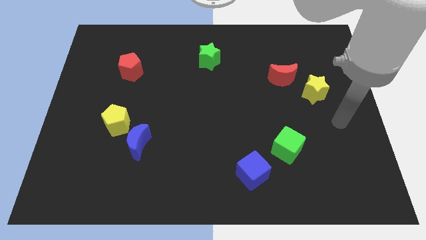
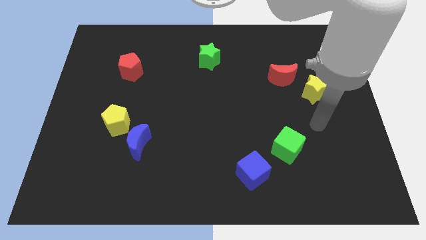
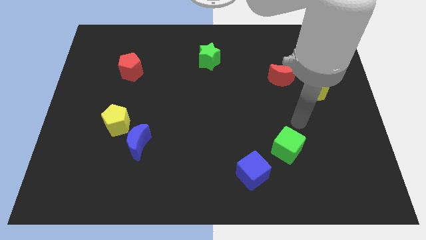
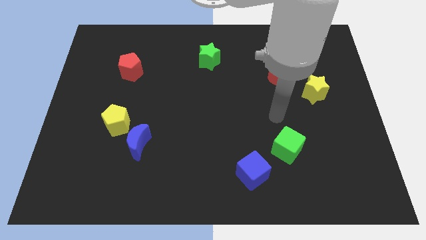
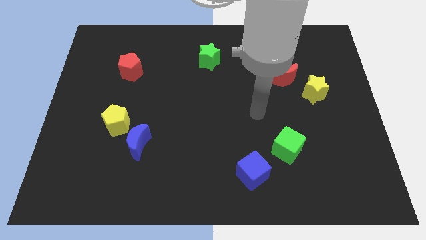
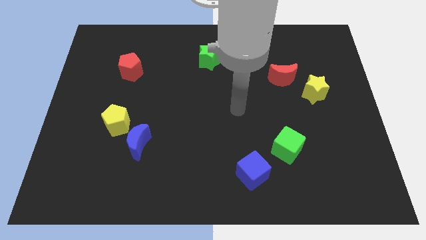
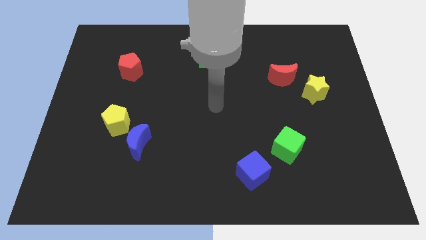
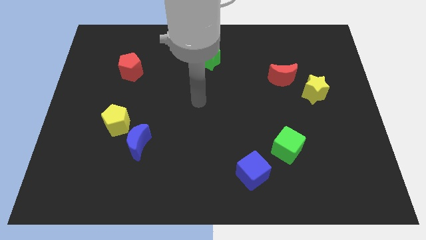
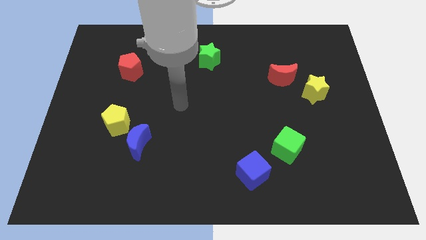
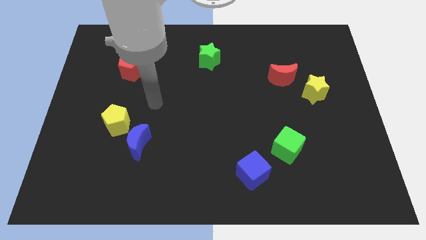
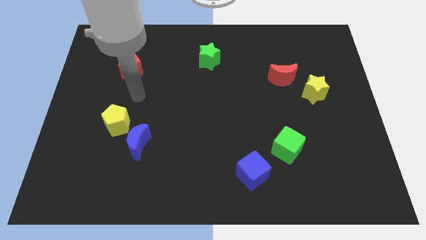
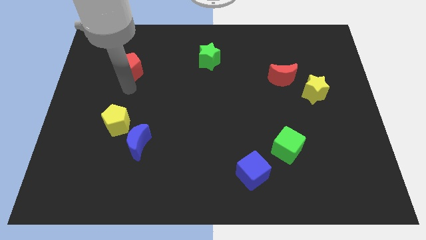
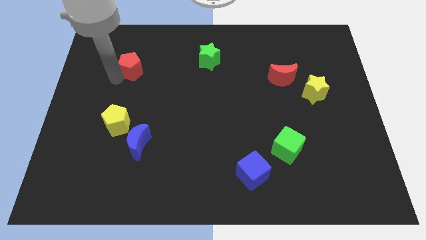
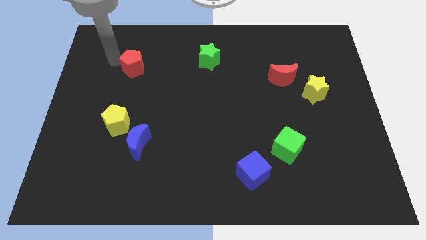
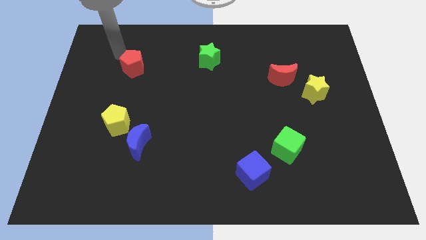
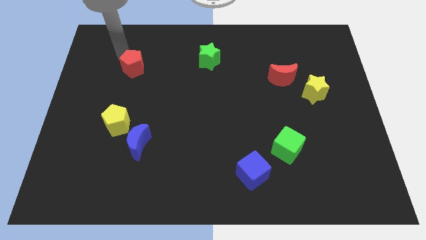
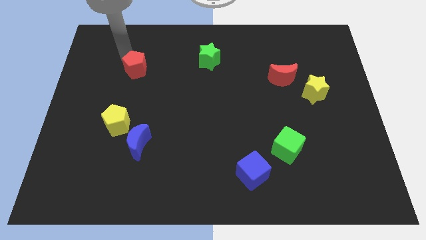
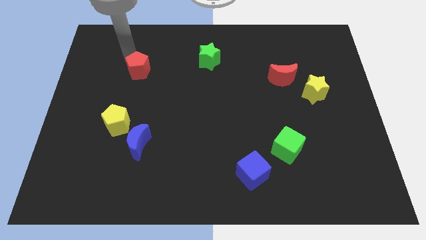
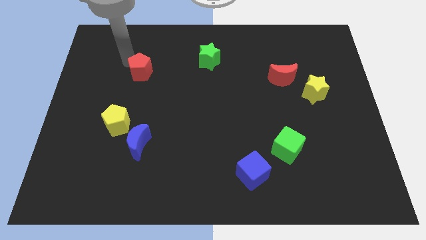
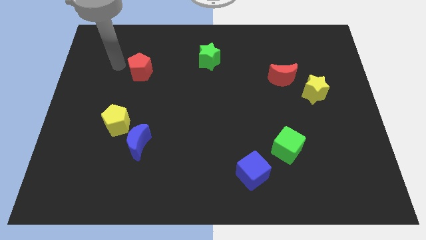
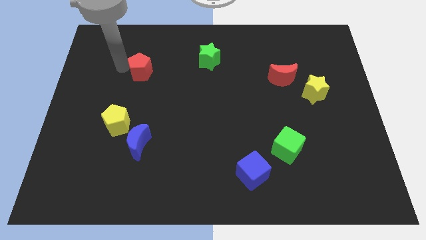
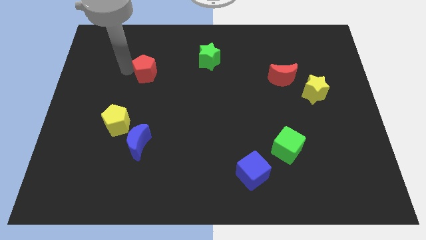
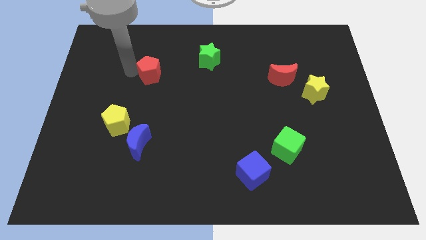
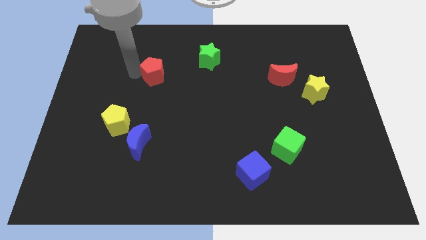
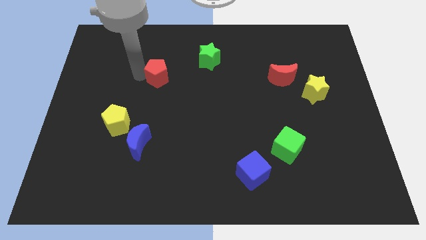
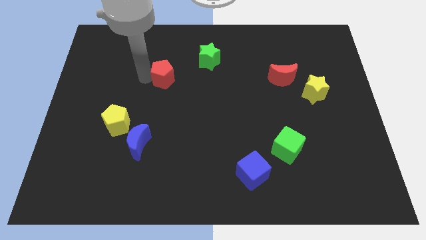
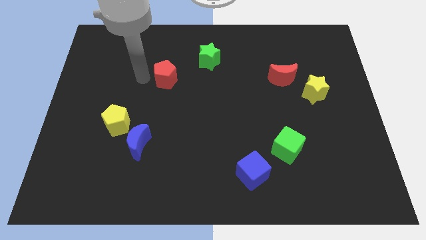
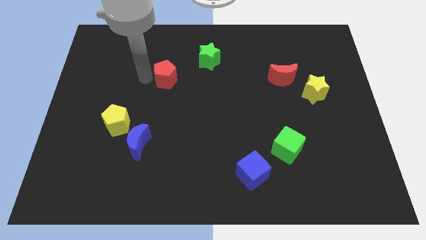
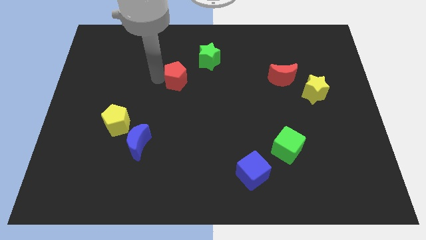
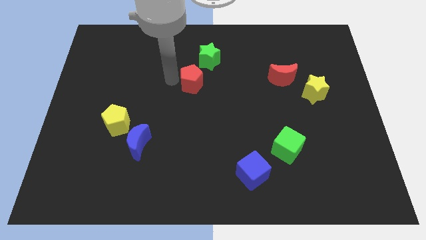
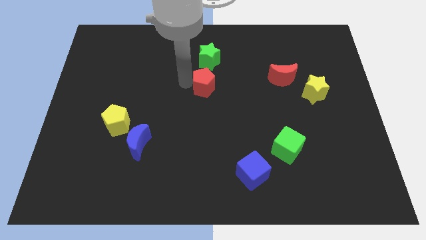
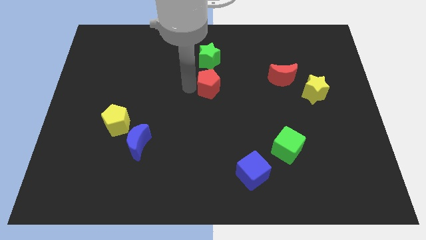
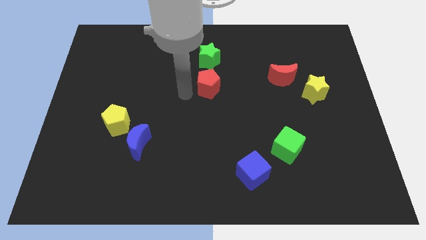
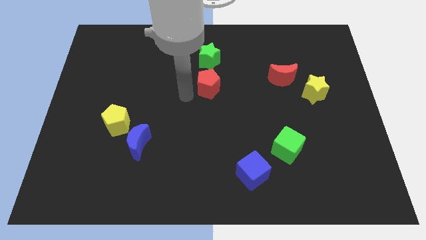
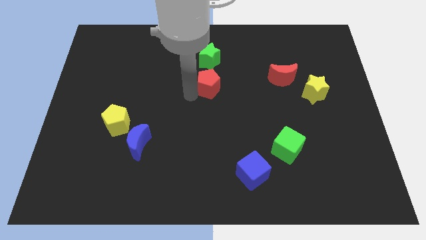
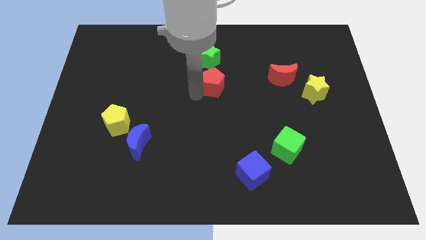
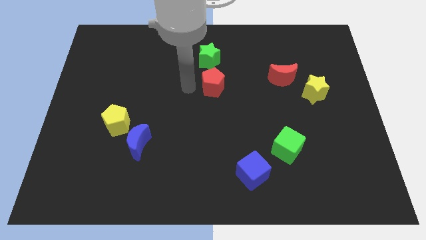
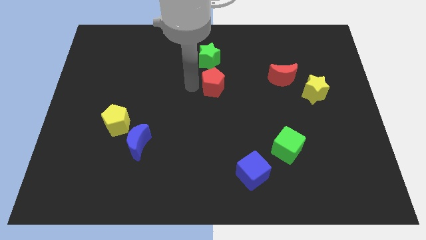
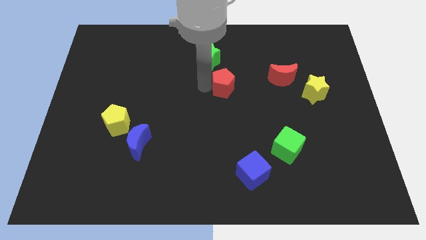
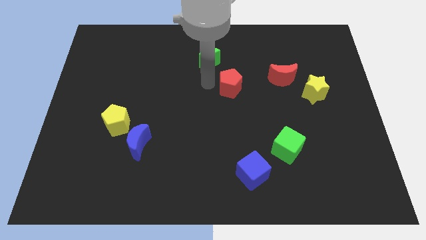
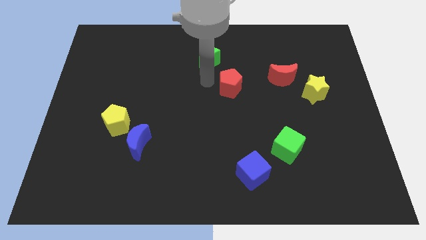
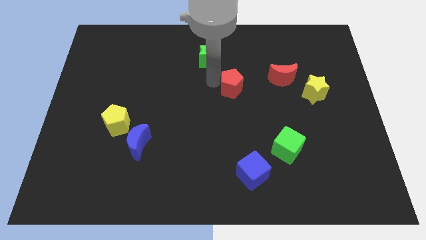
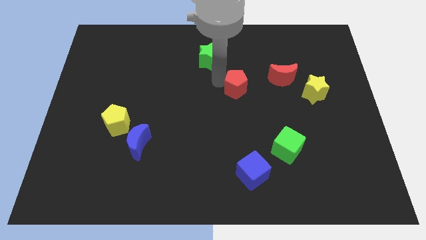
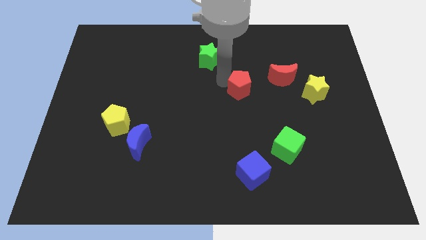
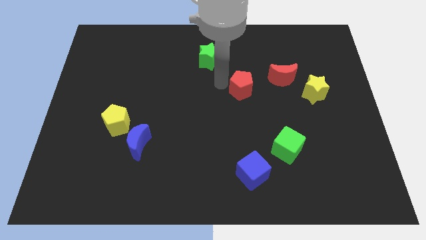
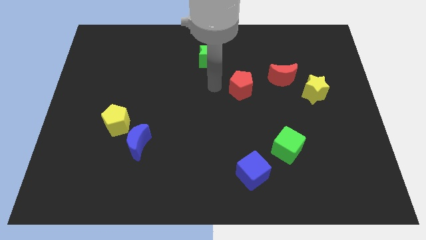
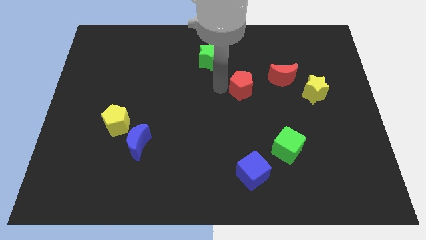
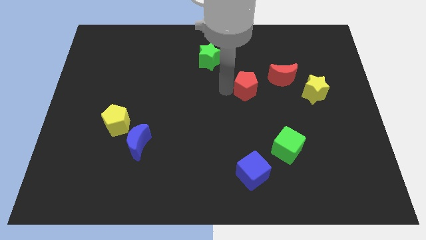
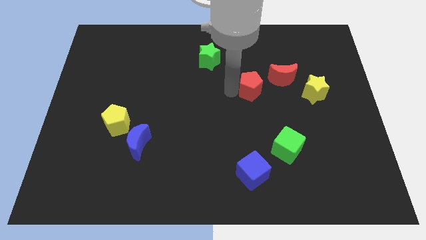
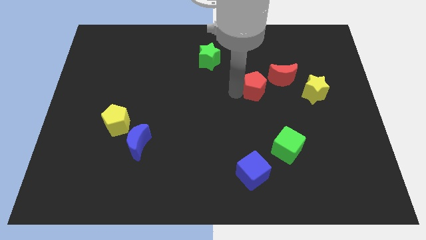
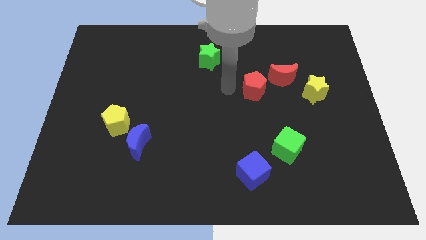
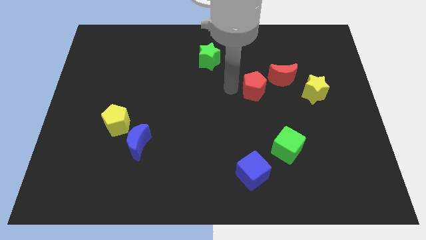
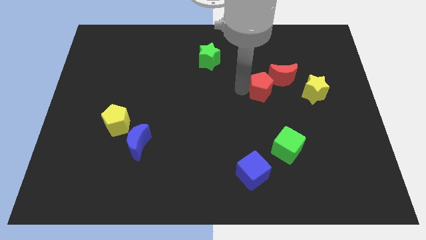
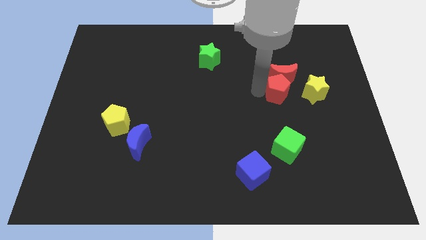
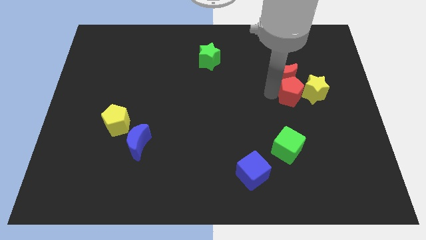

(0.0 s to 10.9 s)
slide the red pentagon towards the yellow star

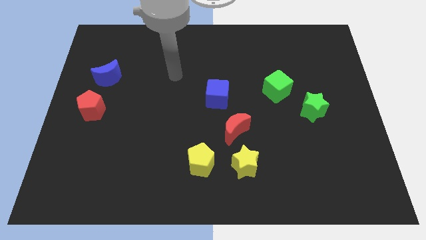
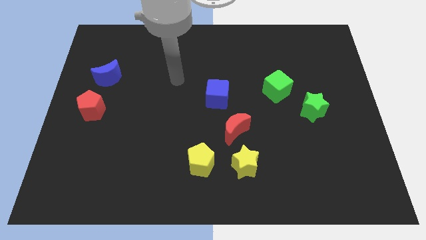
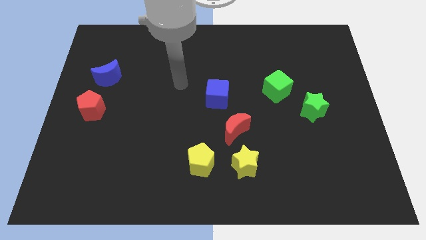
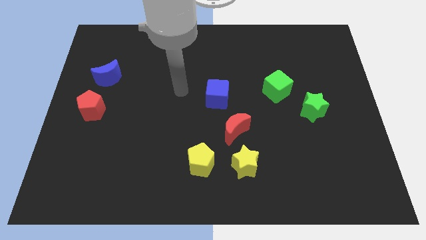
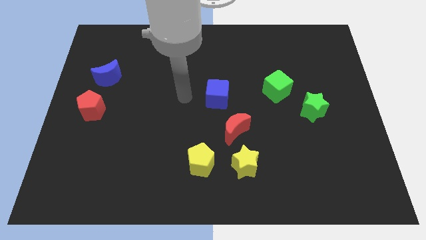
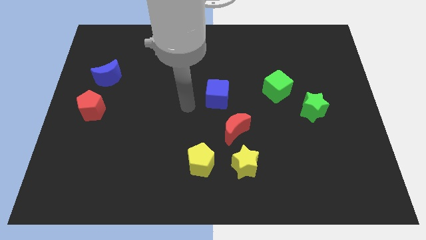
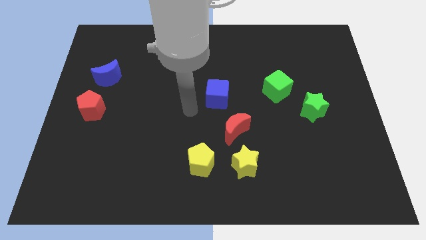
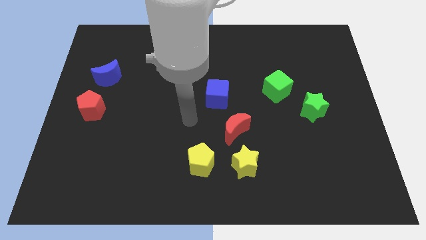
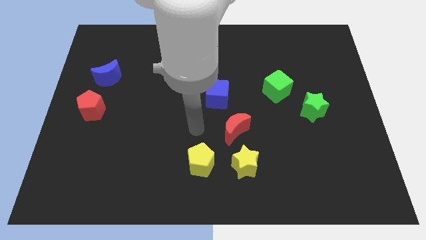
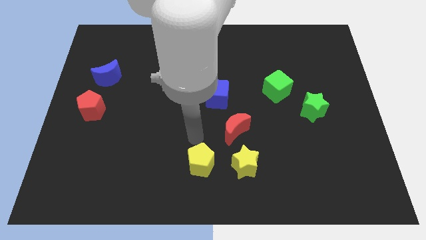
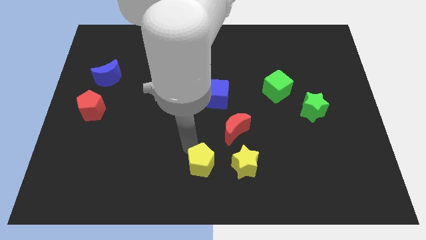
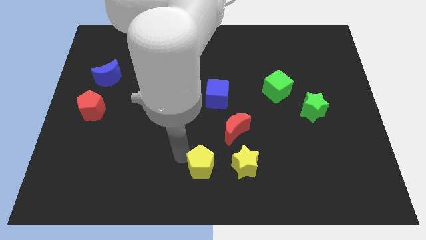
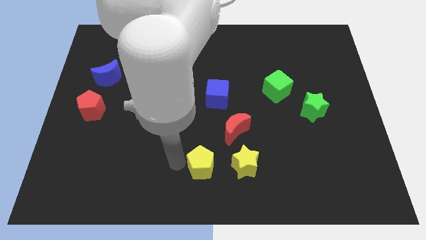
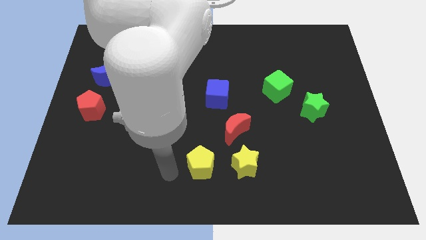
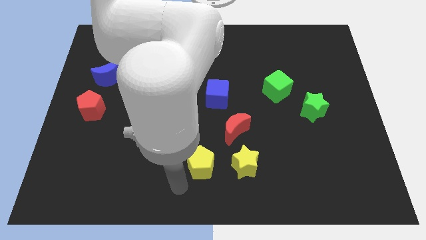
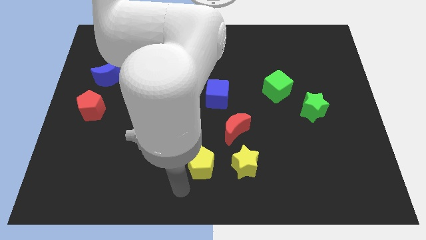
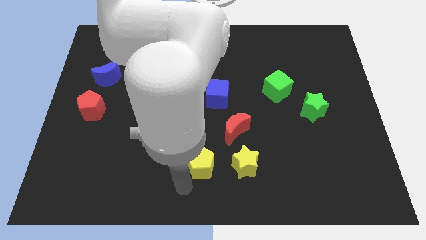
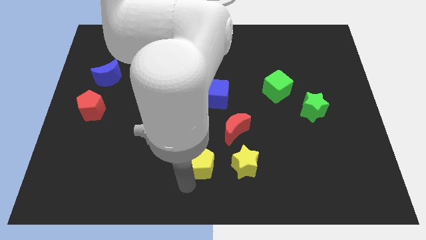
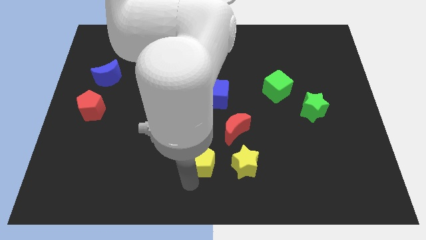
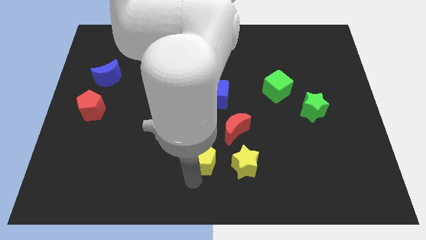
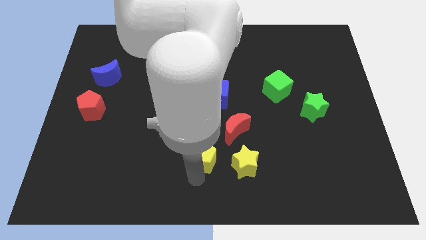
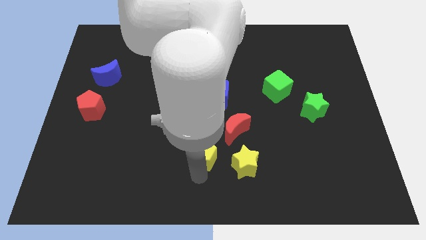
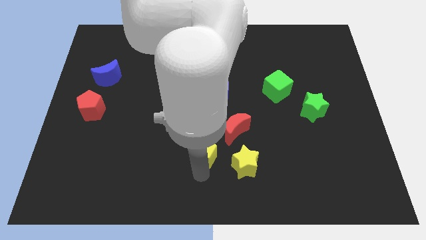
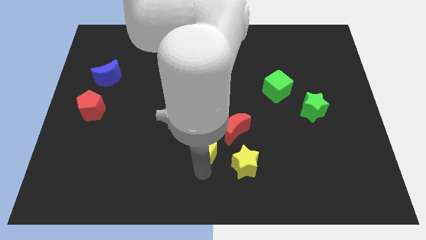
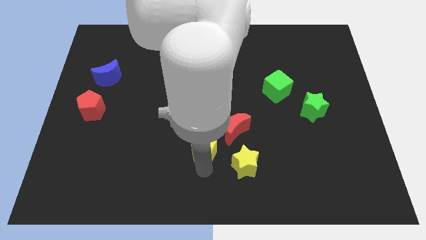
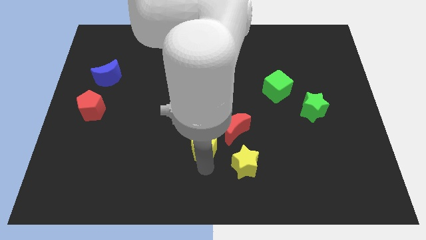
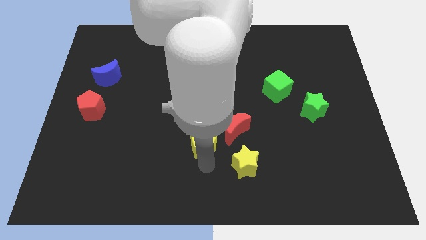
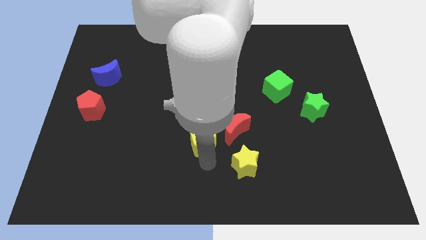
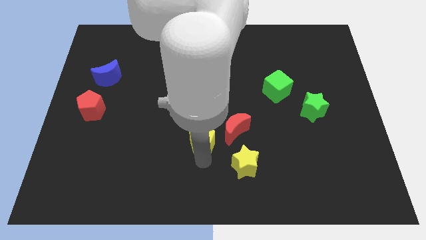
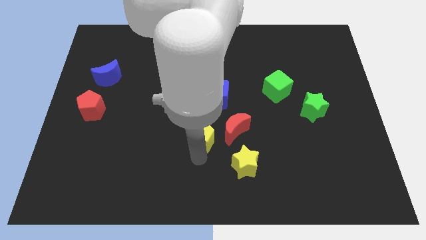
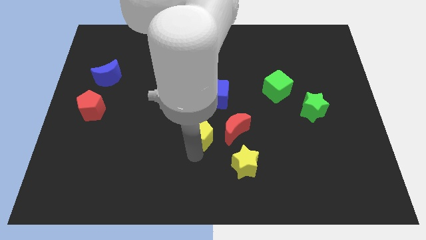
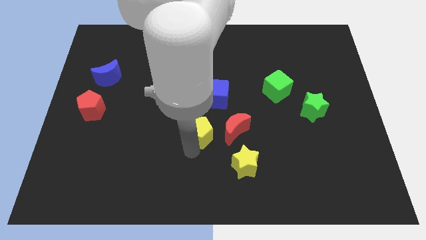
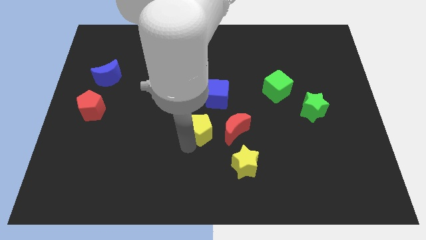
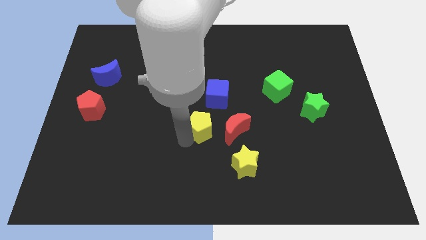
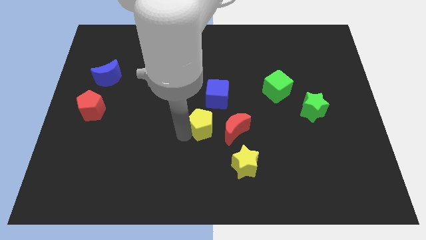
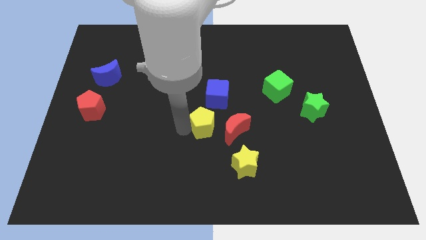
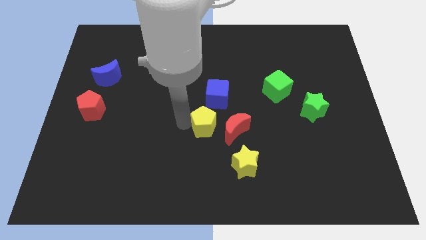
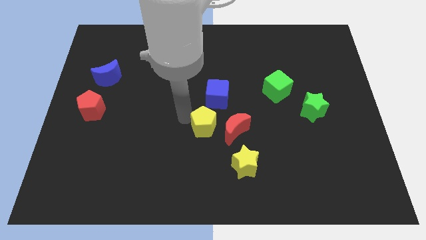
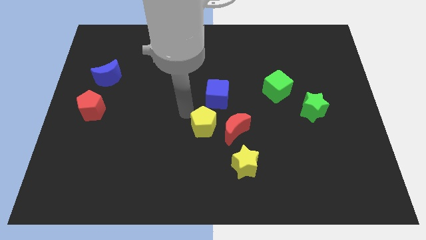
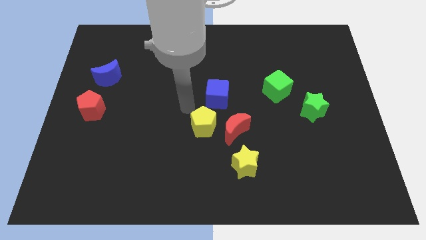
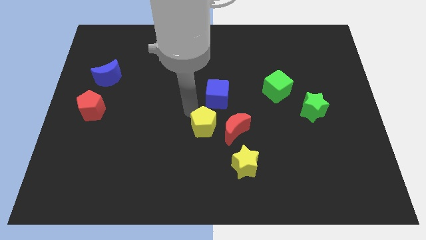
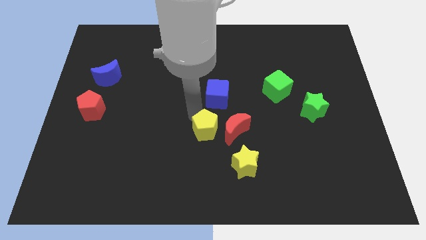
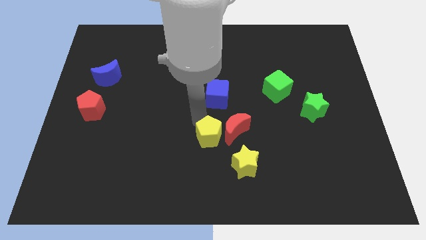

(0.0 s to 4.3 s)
put the yellow pentagon next to the red moon
